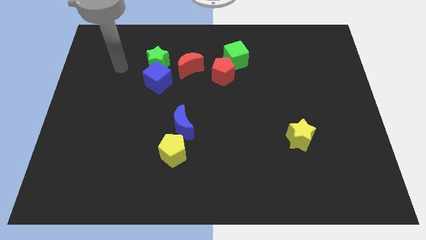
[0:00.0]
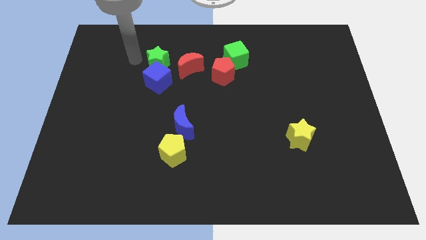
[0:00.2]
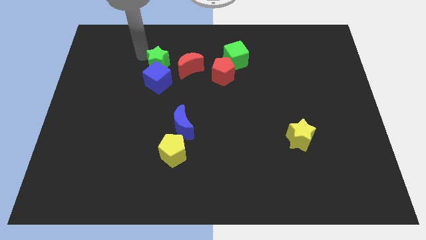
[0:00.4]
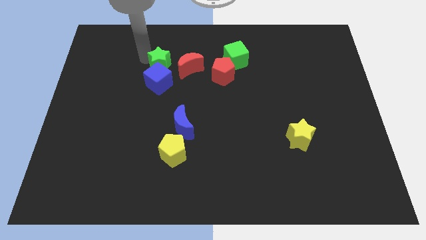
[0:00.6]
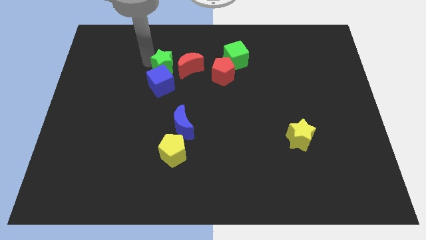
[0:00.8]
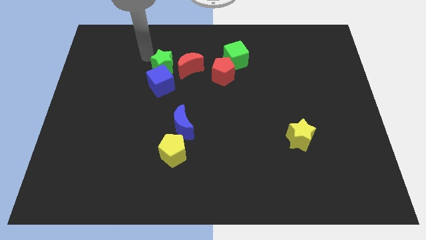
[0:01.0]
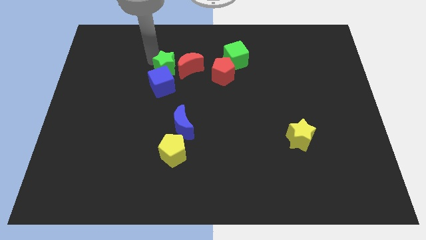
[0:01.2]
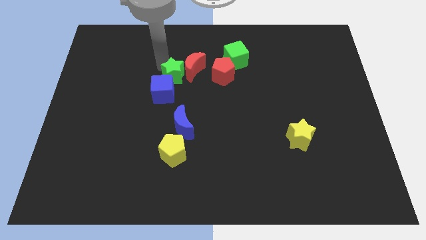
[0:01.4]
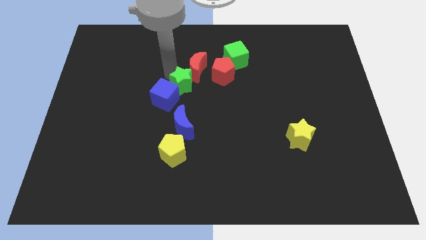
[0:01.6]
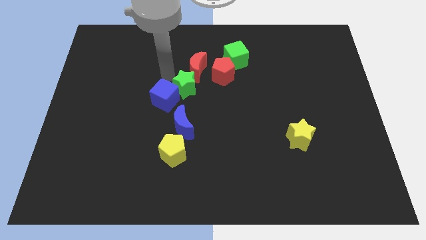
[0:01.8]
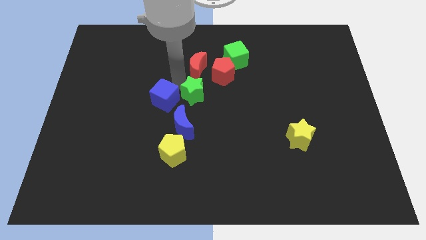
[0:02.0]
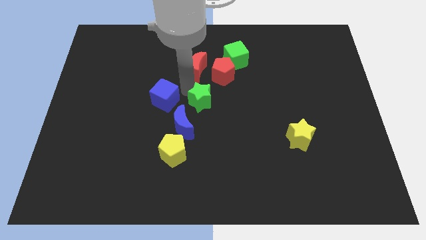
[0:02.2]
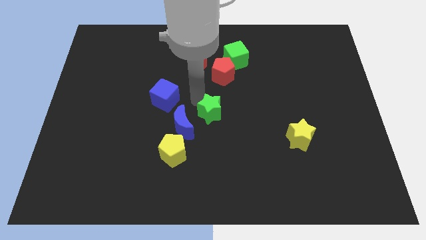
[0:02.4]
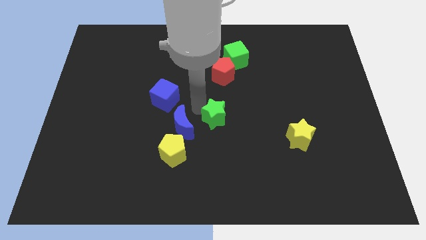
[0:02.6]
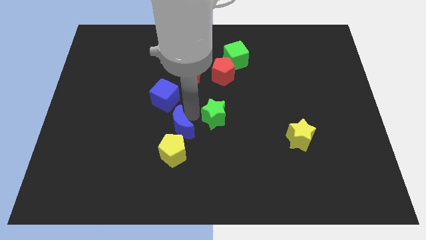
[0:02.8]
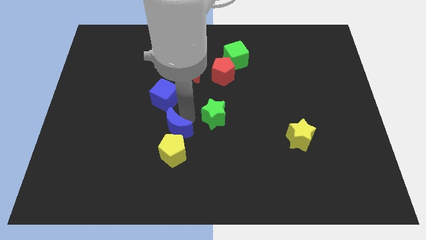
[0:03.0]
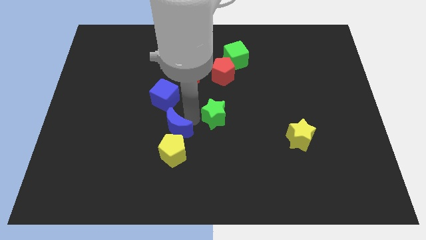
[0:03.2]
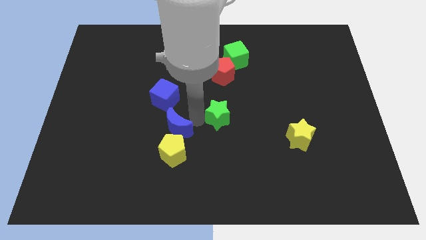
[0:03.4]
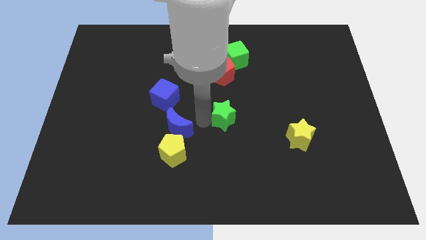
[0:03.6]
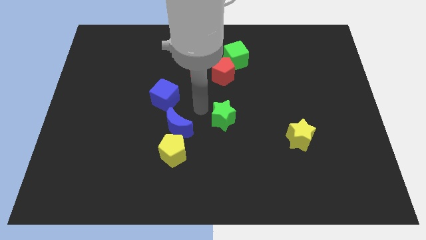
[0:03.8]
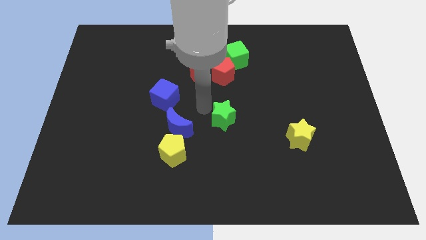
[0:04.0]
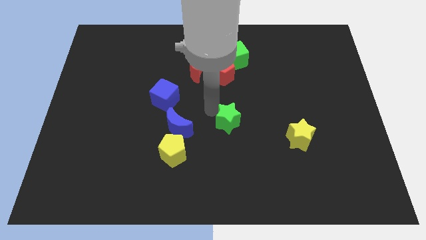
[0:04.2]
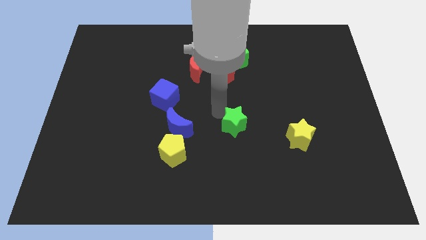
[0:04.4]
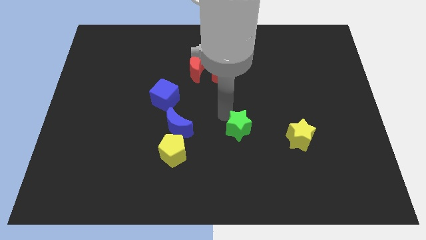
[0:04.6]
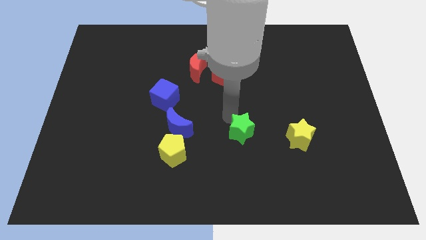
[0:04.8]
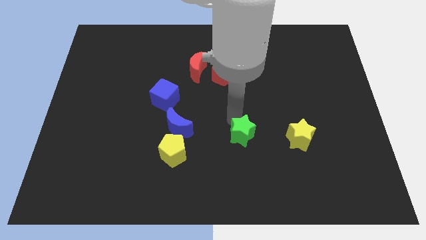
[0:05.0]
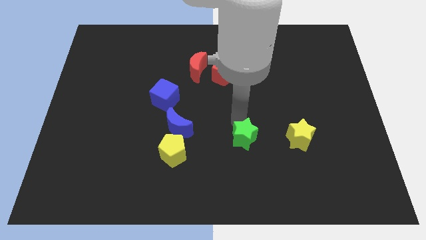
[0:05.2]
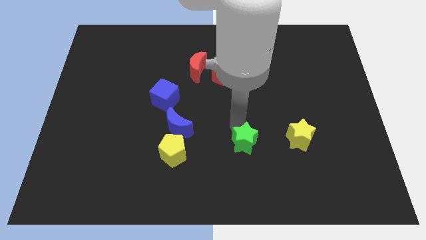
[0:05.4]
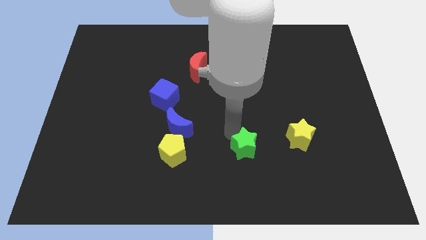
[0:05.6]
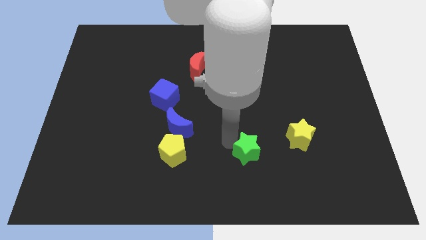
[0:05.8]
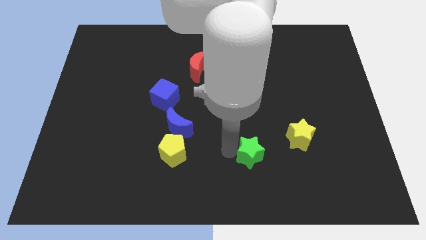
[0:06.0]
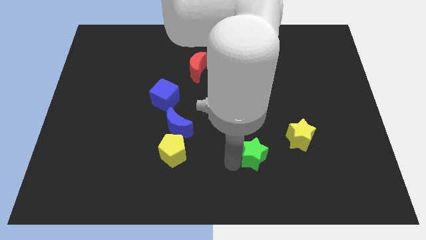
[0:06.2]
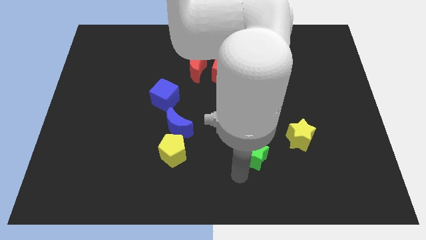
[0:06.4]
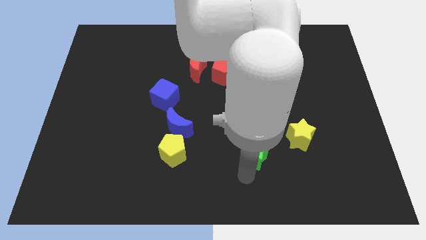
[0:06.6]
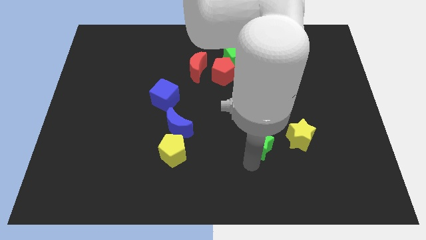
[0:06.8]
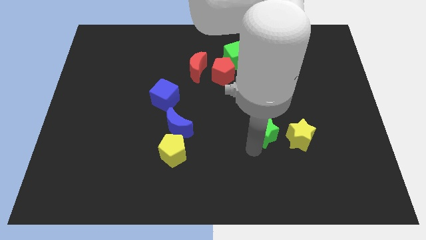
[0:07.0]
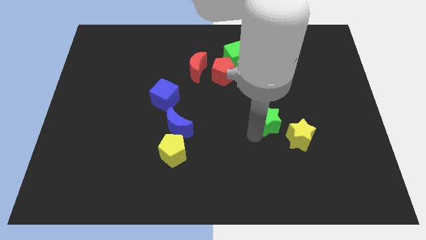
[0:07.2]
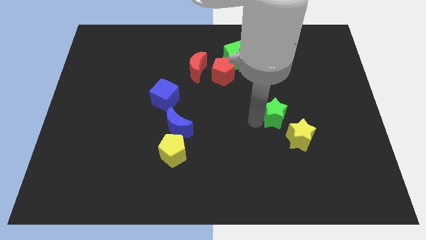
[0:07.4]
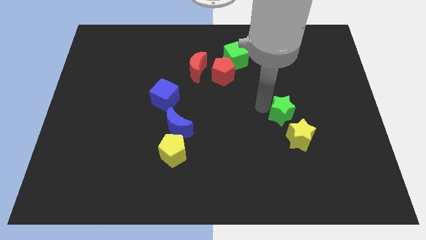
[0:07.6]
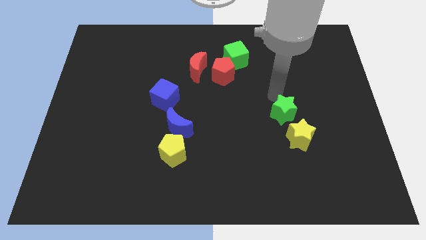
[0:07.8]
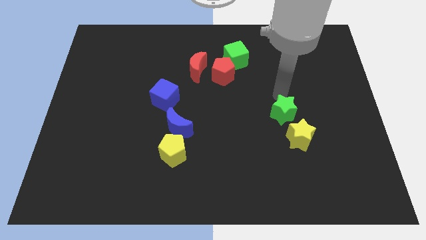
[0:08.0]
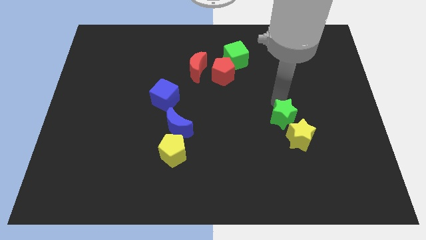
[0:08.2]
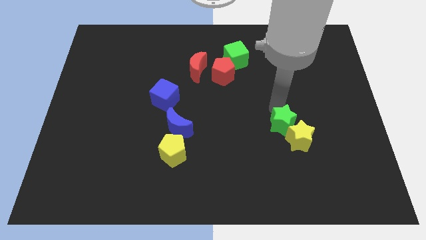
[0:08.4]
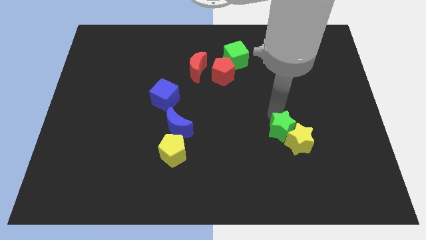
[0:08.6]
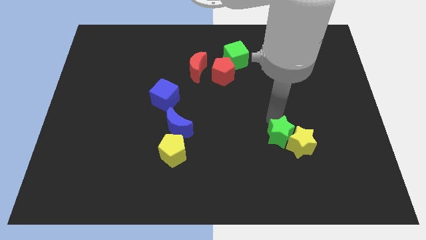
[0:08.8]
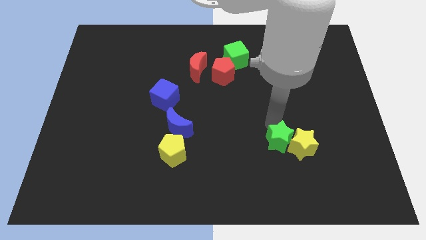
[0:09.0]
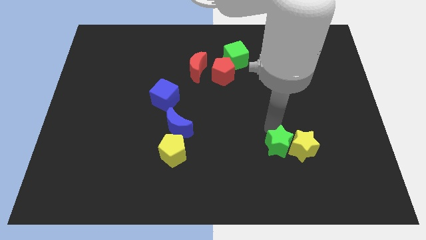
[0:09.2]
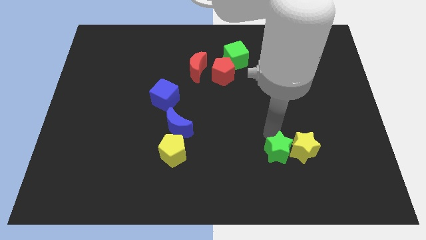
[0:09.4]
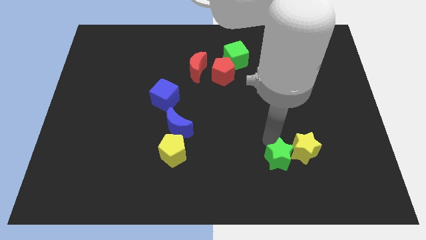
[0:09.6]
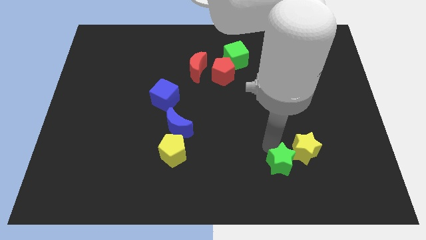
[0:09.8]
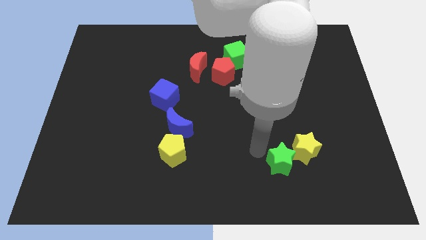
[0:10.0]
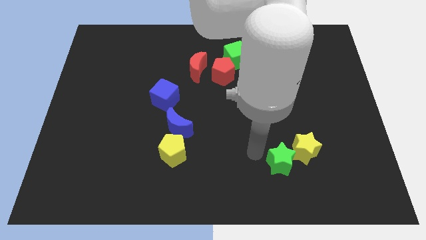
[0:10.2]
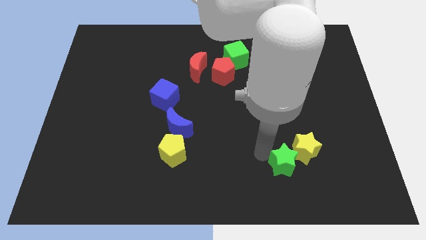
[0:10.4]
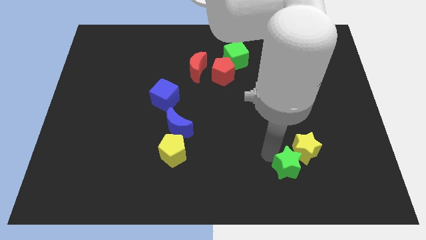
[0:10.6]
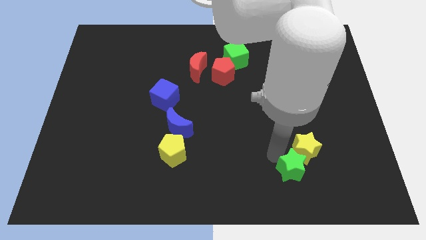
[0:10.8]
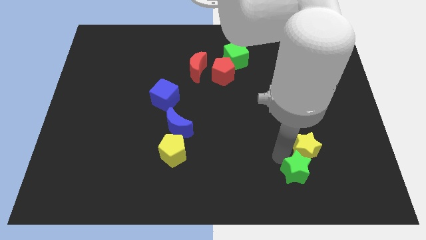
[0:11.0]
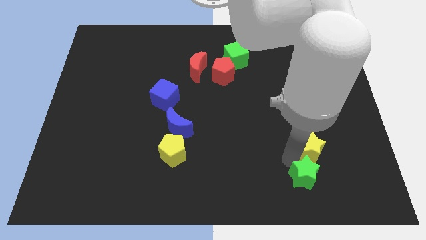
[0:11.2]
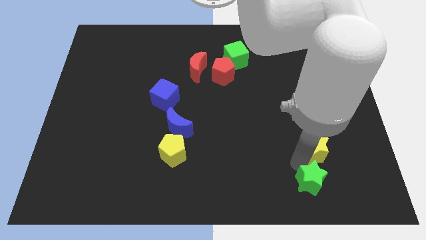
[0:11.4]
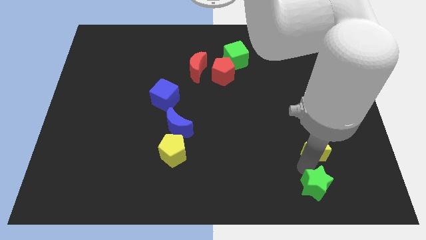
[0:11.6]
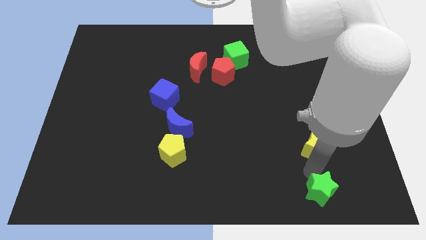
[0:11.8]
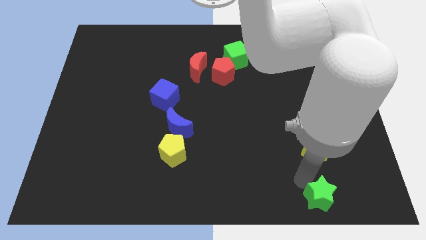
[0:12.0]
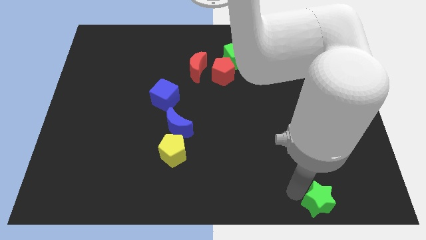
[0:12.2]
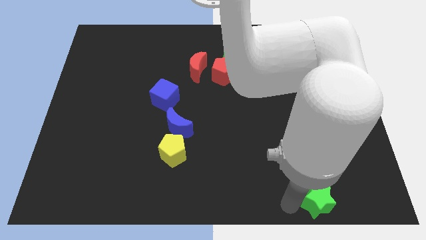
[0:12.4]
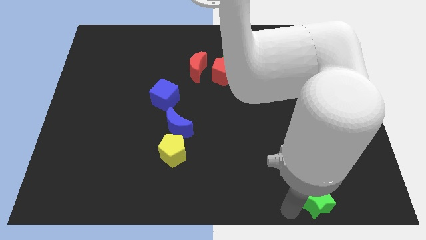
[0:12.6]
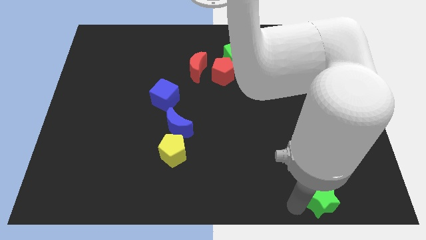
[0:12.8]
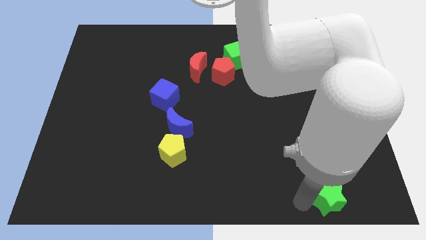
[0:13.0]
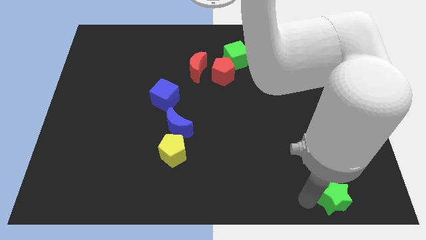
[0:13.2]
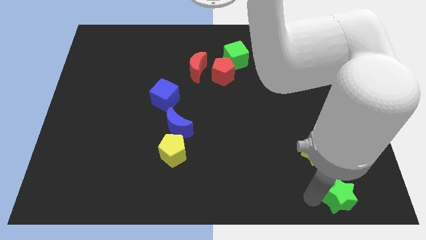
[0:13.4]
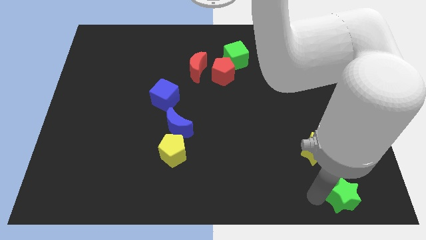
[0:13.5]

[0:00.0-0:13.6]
put the green star to the lower right corner
